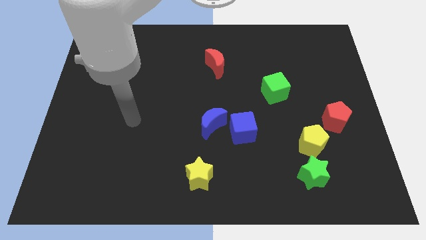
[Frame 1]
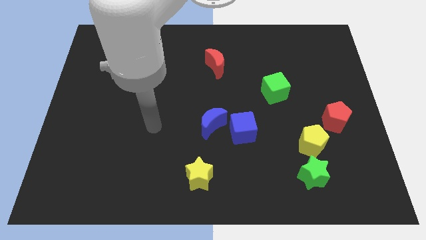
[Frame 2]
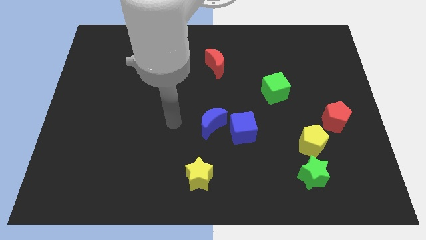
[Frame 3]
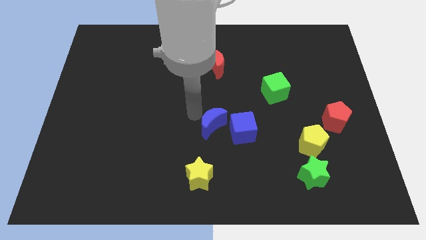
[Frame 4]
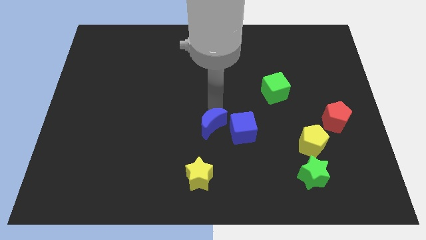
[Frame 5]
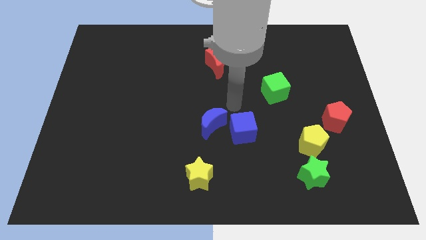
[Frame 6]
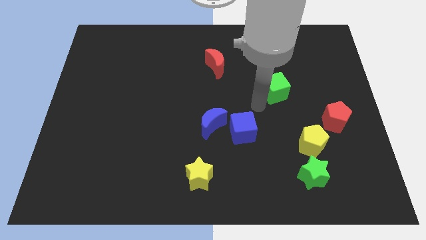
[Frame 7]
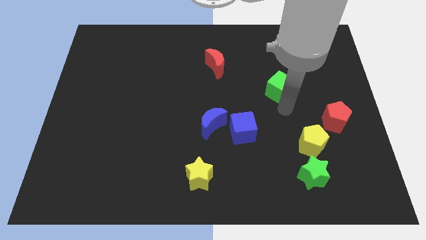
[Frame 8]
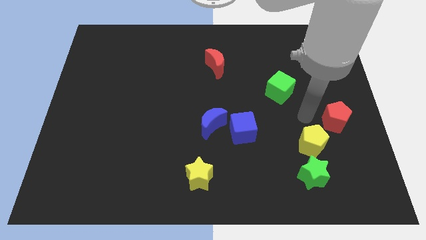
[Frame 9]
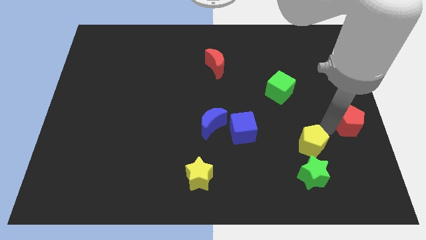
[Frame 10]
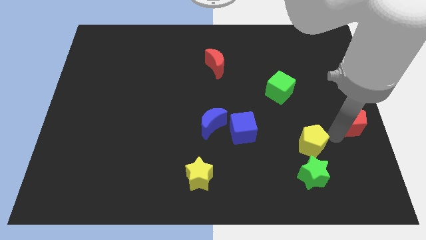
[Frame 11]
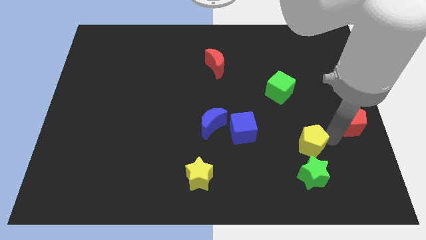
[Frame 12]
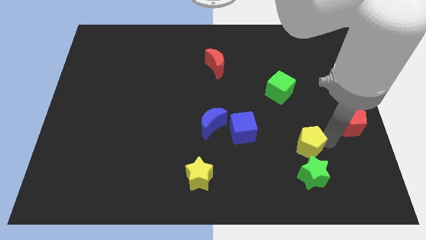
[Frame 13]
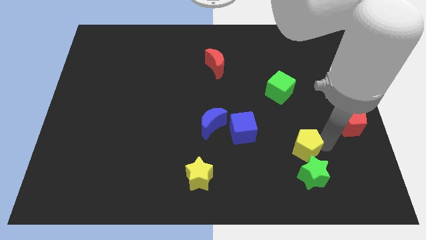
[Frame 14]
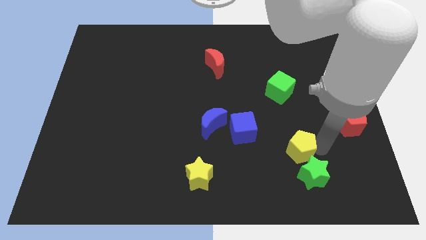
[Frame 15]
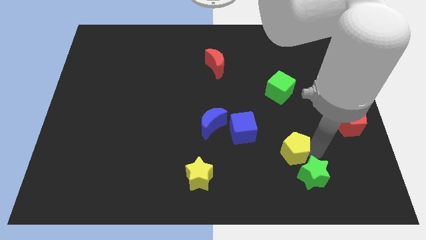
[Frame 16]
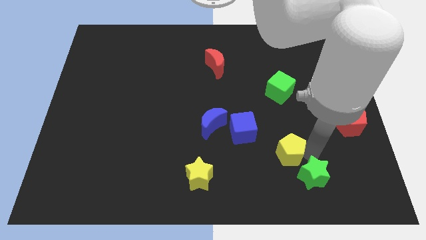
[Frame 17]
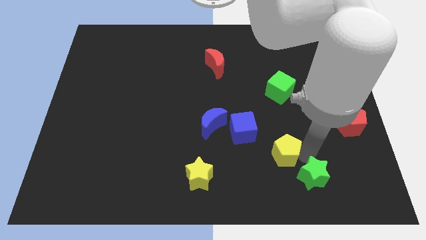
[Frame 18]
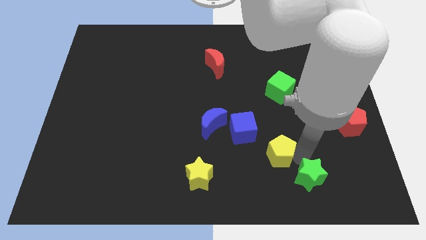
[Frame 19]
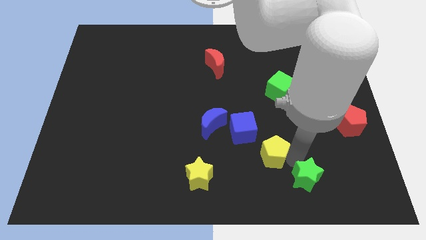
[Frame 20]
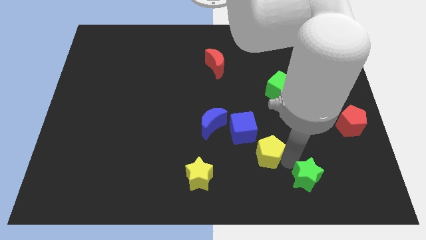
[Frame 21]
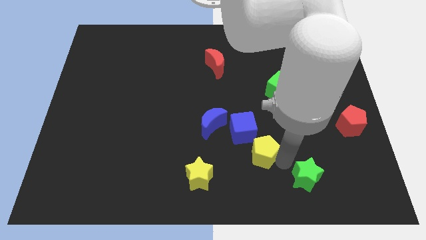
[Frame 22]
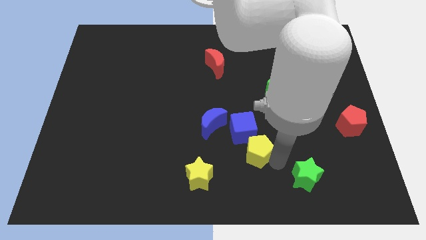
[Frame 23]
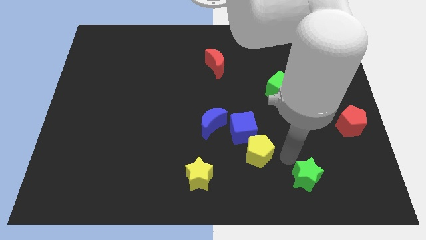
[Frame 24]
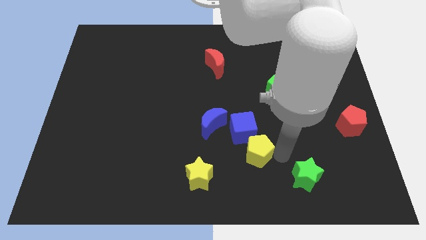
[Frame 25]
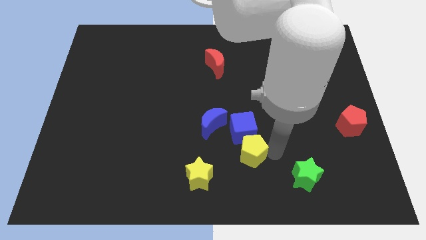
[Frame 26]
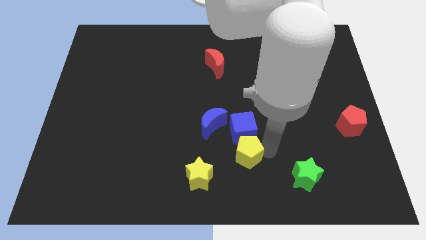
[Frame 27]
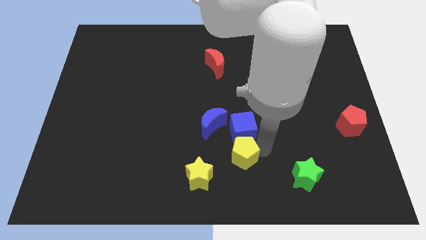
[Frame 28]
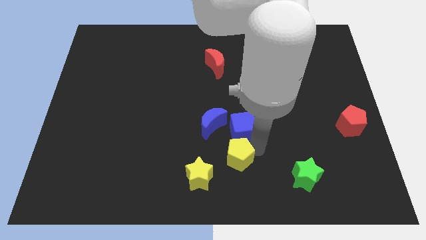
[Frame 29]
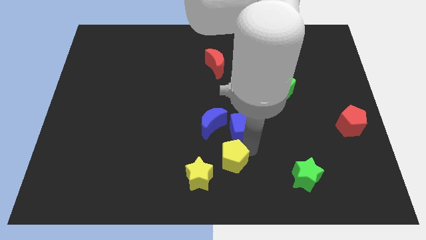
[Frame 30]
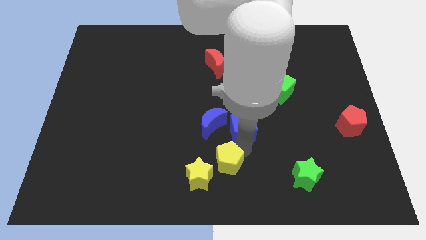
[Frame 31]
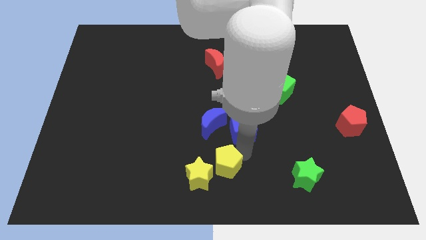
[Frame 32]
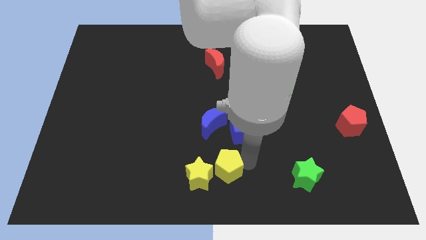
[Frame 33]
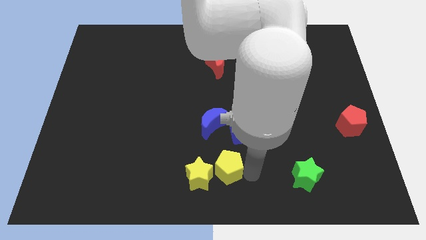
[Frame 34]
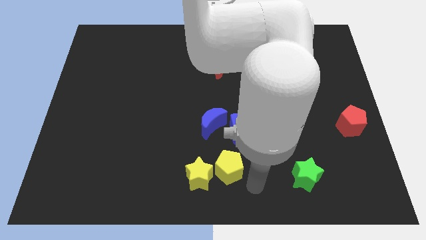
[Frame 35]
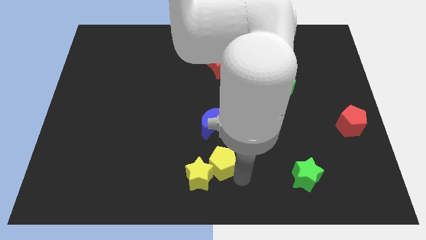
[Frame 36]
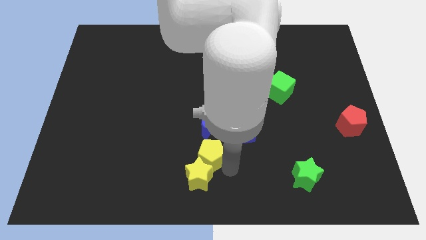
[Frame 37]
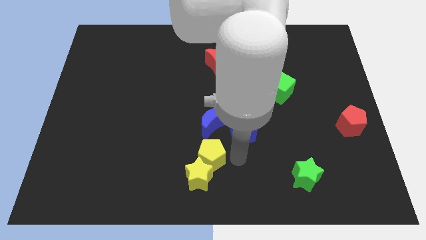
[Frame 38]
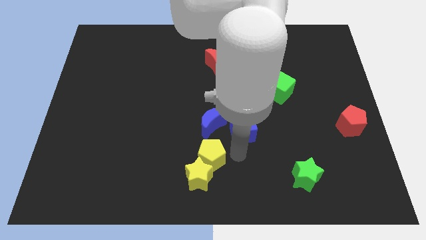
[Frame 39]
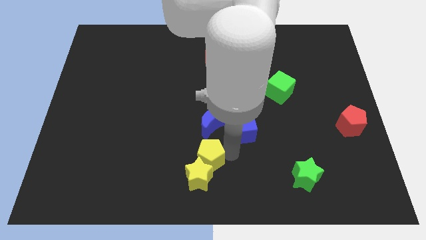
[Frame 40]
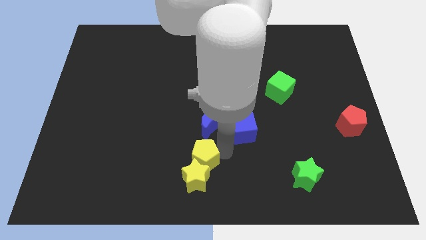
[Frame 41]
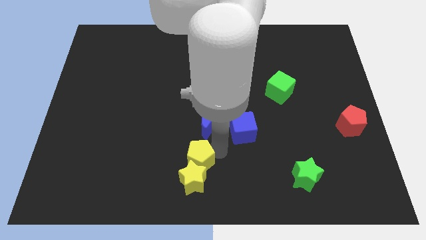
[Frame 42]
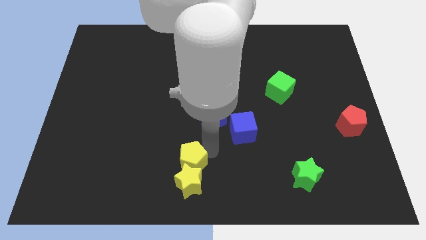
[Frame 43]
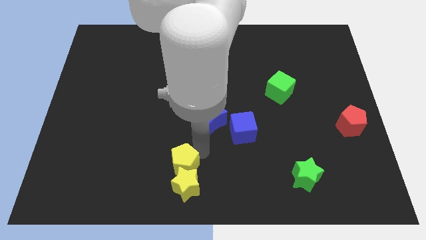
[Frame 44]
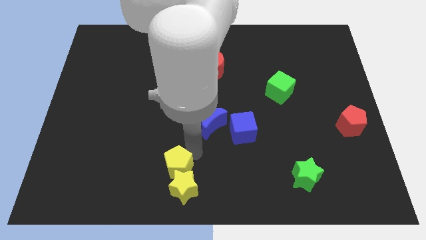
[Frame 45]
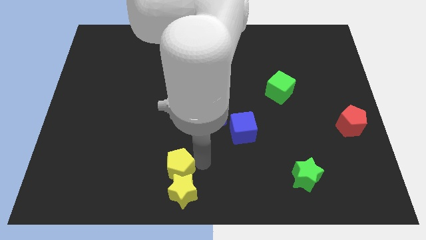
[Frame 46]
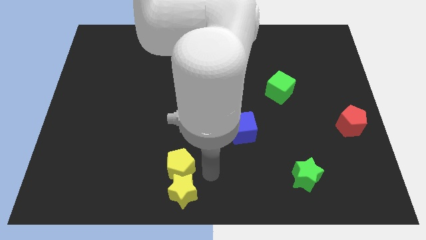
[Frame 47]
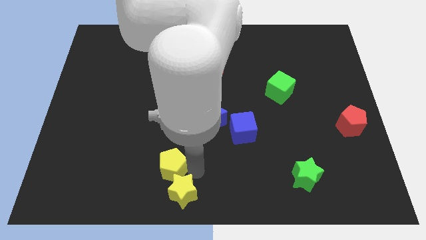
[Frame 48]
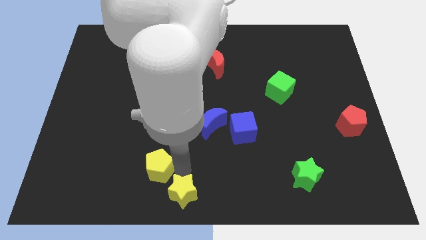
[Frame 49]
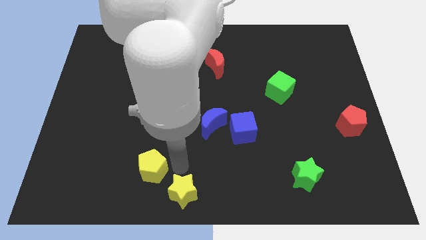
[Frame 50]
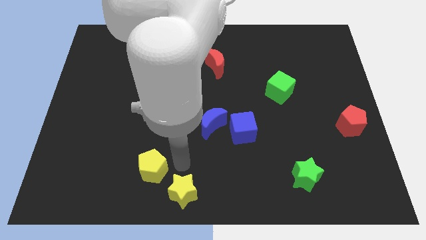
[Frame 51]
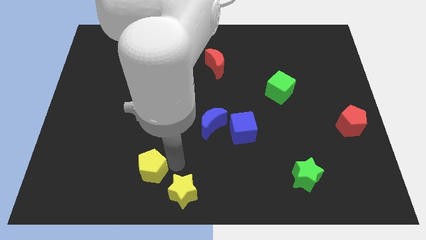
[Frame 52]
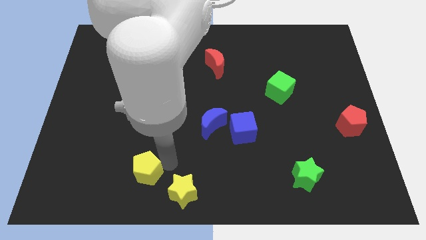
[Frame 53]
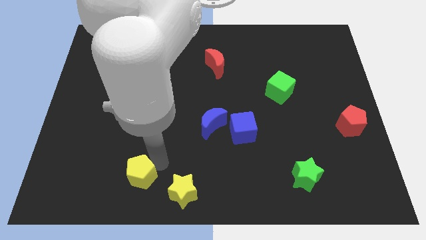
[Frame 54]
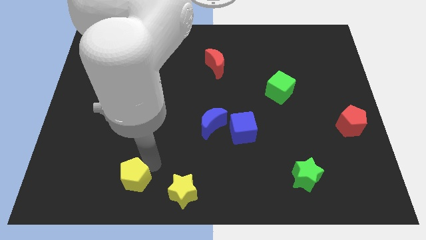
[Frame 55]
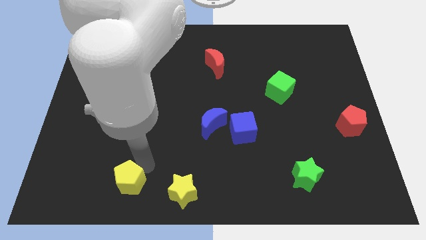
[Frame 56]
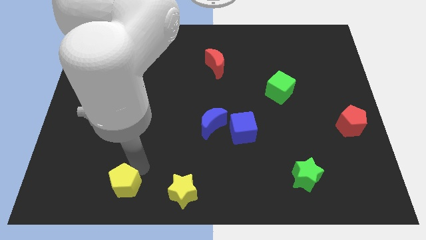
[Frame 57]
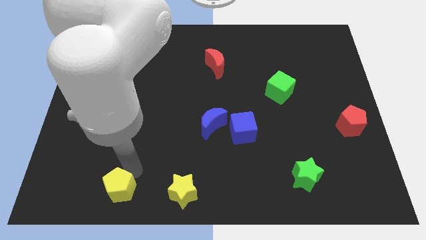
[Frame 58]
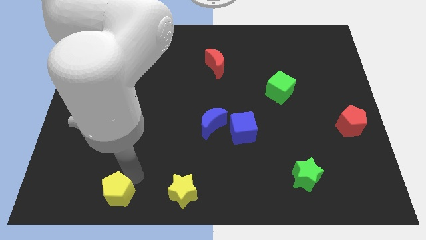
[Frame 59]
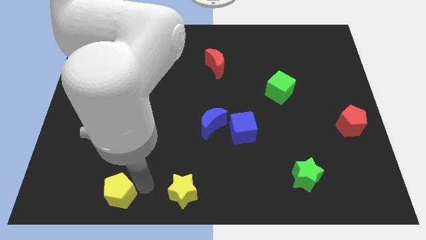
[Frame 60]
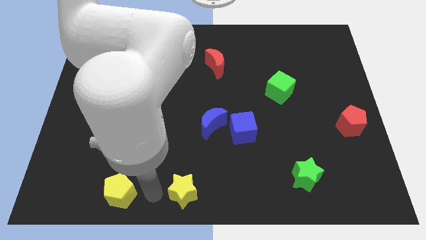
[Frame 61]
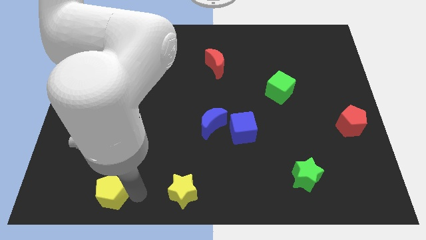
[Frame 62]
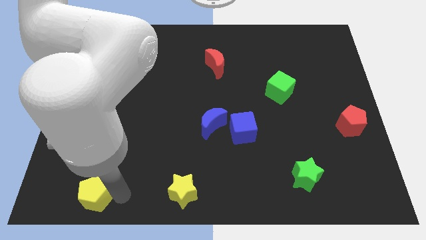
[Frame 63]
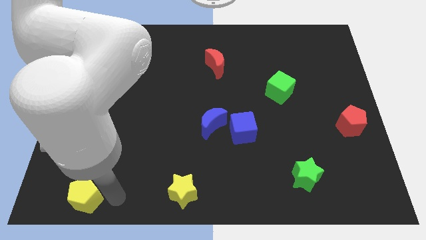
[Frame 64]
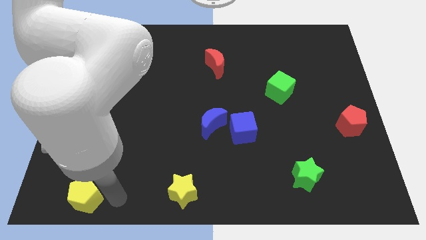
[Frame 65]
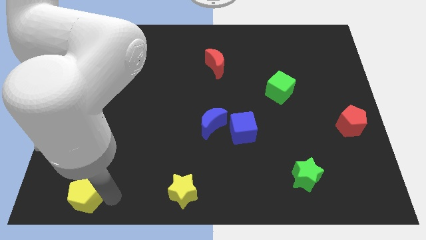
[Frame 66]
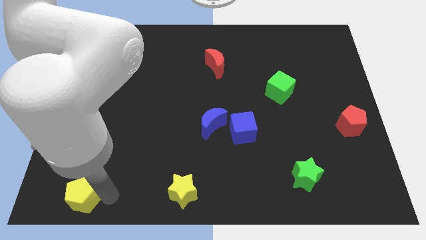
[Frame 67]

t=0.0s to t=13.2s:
move the yellow pentagon to the lower left corner
